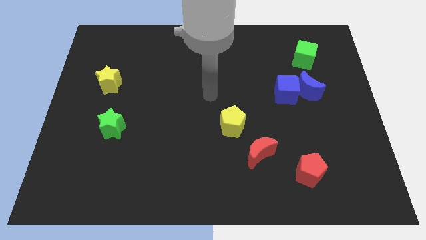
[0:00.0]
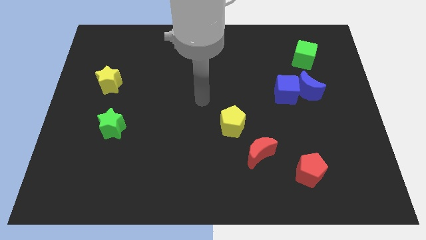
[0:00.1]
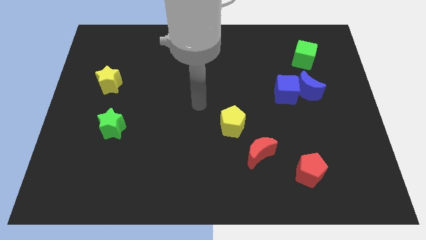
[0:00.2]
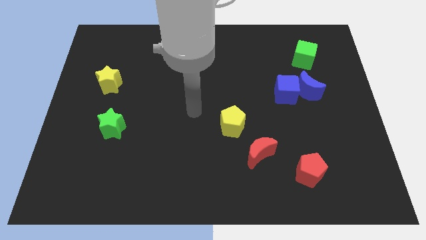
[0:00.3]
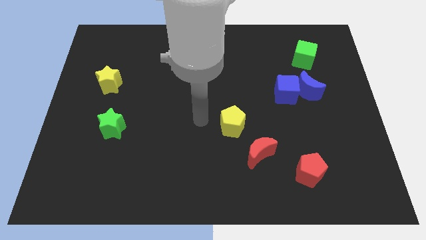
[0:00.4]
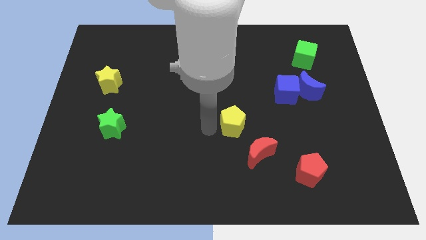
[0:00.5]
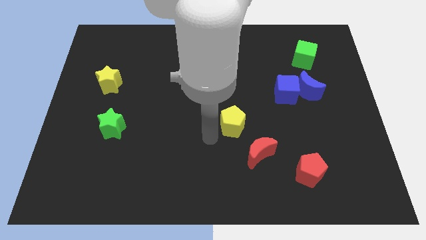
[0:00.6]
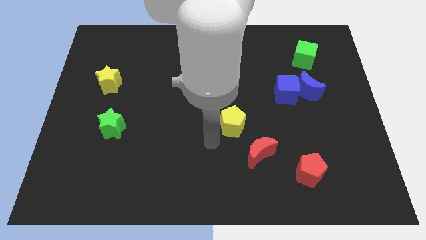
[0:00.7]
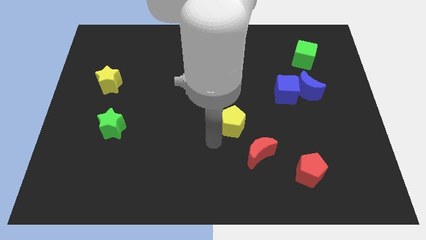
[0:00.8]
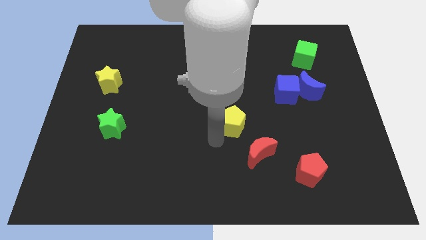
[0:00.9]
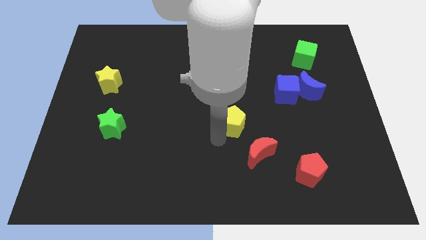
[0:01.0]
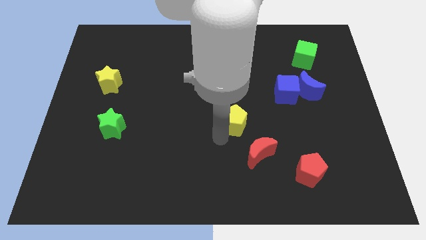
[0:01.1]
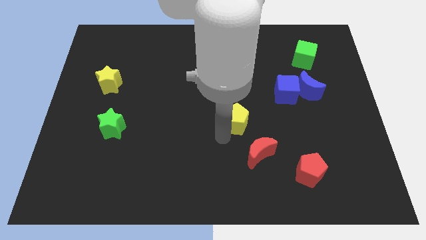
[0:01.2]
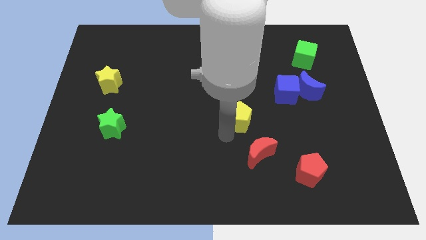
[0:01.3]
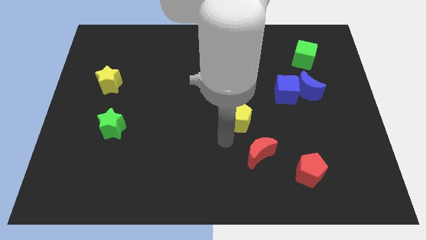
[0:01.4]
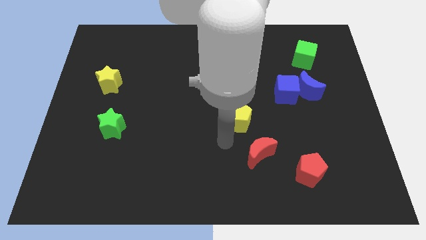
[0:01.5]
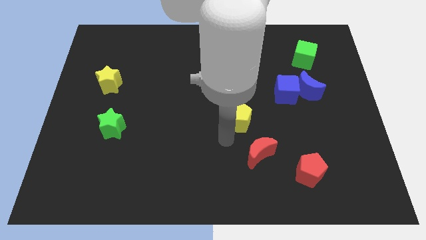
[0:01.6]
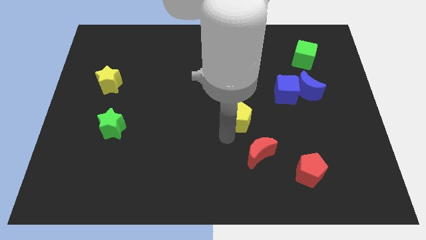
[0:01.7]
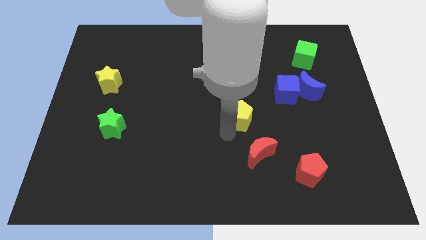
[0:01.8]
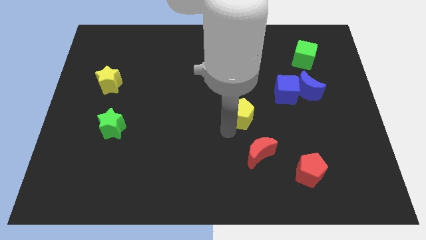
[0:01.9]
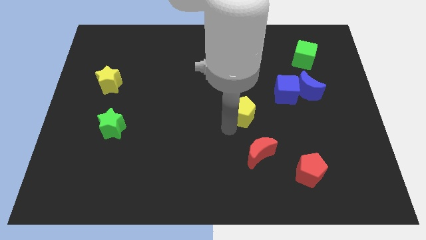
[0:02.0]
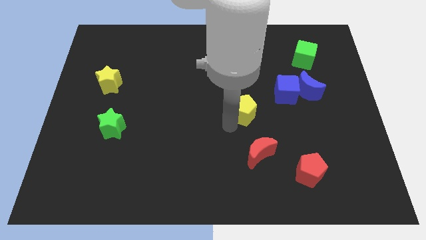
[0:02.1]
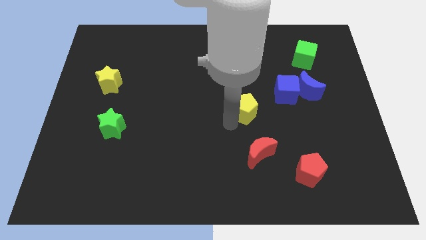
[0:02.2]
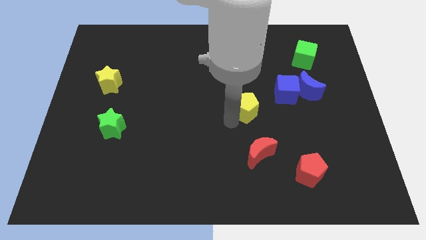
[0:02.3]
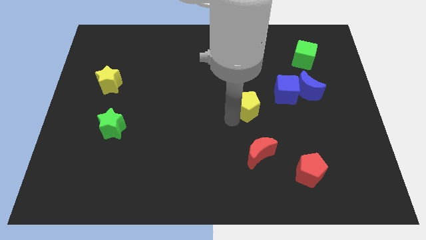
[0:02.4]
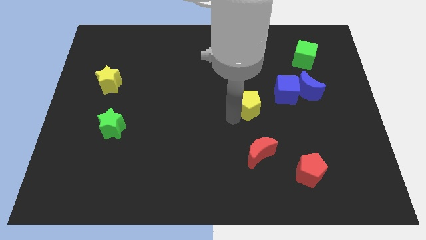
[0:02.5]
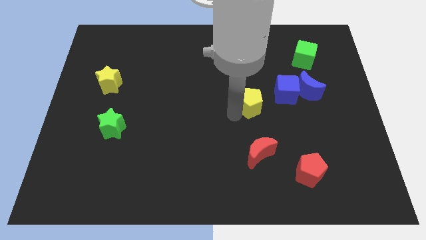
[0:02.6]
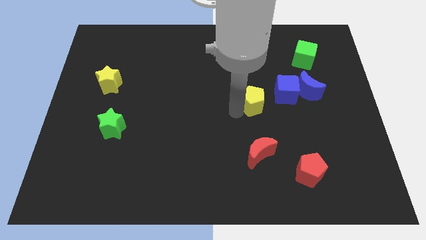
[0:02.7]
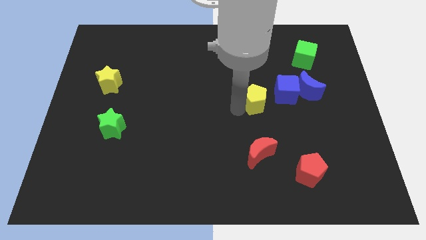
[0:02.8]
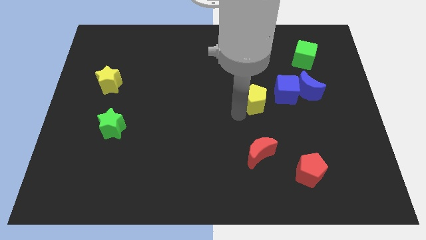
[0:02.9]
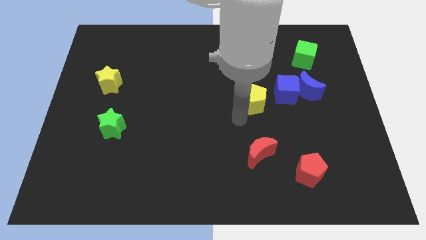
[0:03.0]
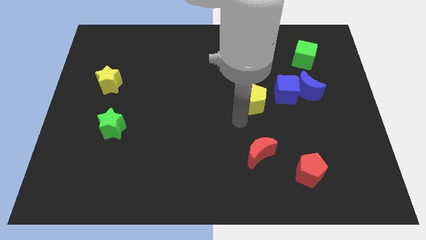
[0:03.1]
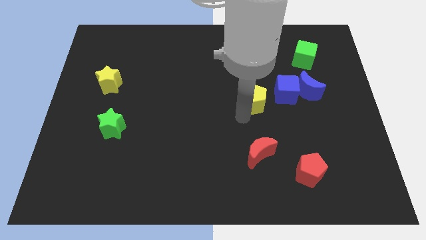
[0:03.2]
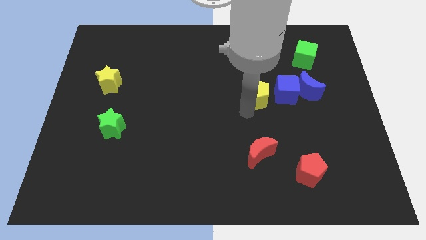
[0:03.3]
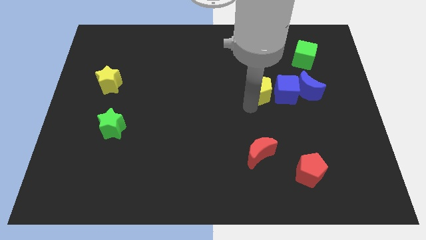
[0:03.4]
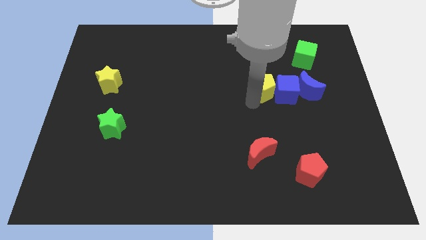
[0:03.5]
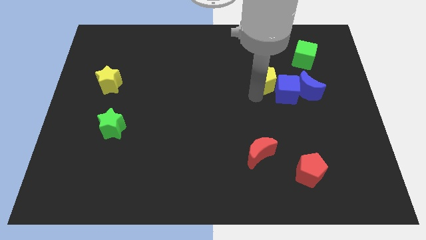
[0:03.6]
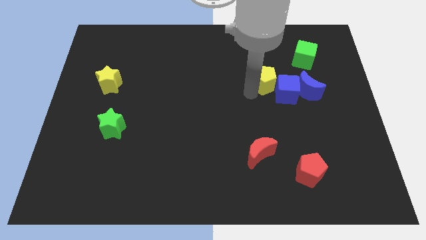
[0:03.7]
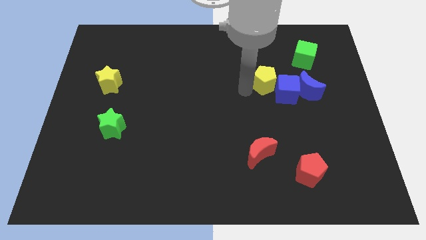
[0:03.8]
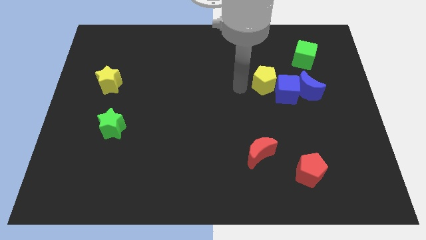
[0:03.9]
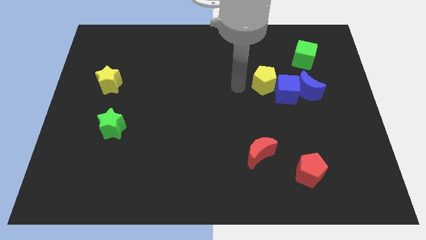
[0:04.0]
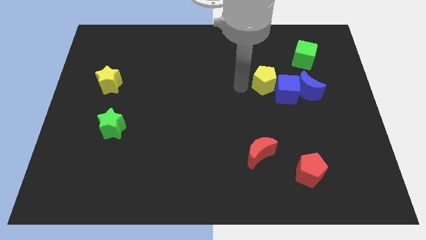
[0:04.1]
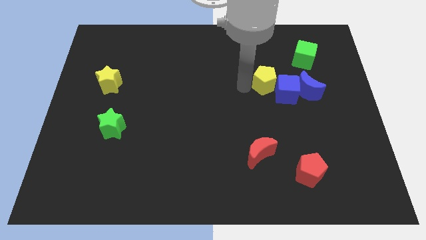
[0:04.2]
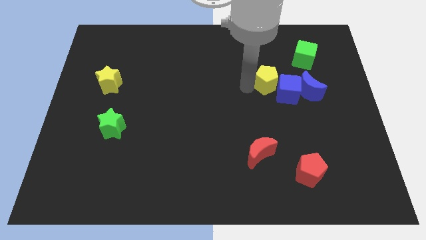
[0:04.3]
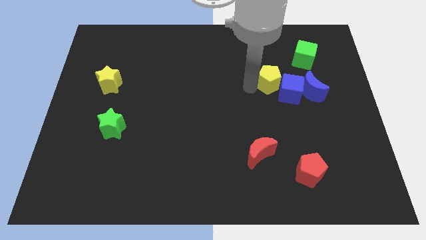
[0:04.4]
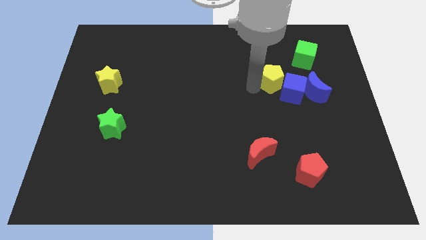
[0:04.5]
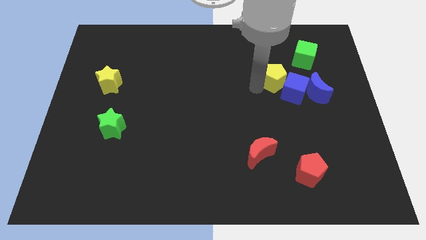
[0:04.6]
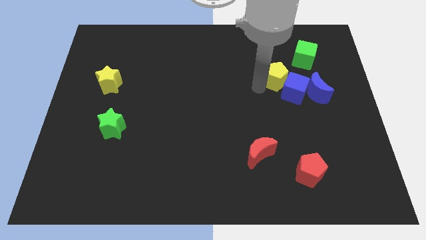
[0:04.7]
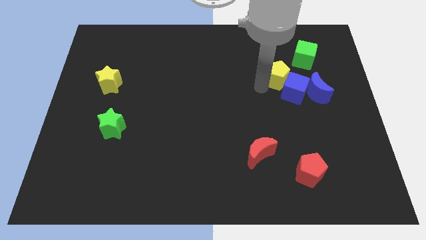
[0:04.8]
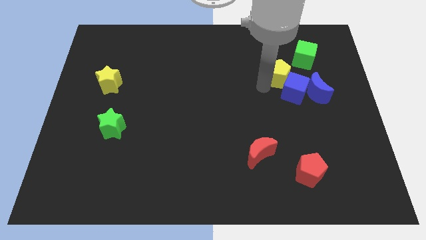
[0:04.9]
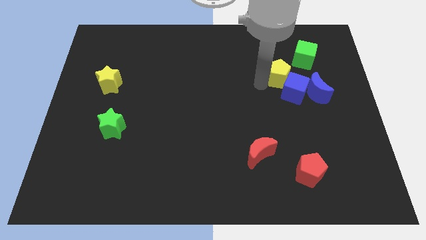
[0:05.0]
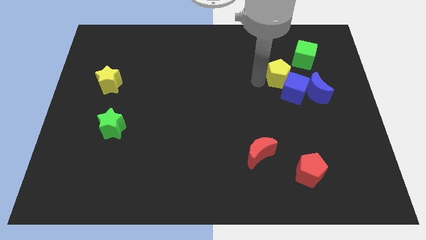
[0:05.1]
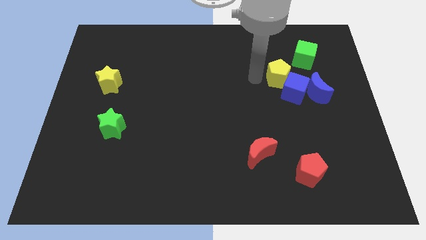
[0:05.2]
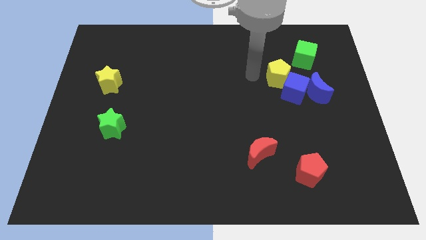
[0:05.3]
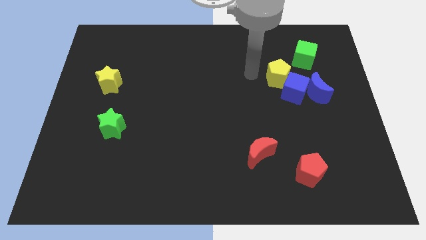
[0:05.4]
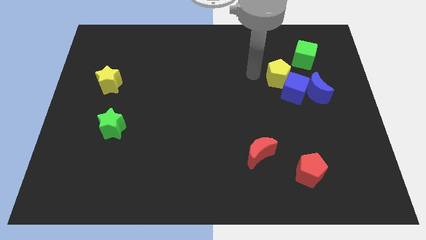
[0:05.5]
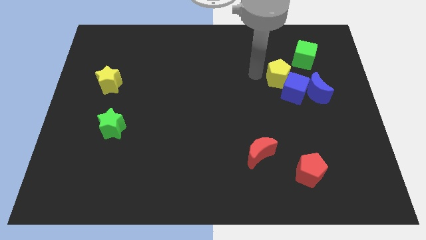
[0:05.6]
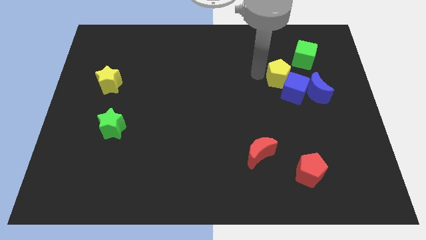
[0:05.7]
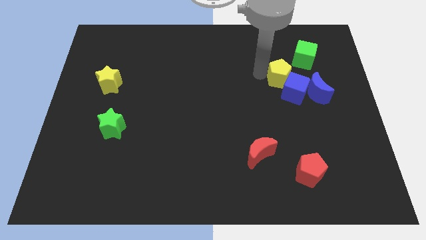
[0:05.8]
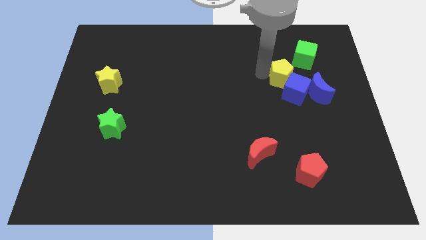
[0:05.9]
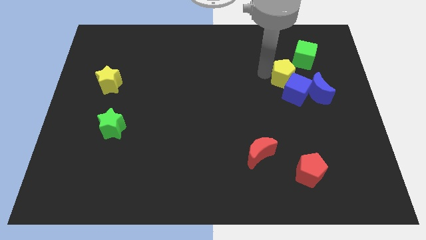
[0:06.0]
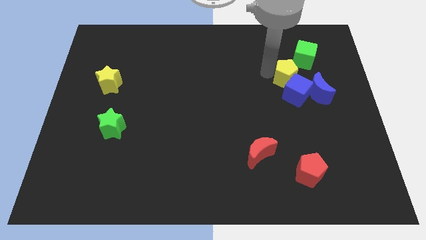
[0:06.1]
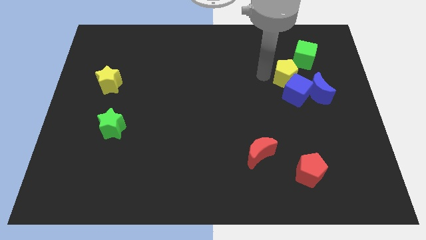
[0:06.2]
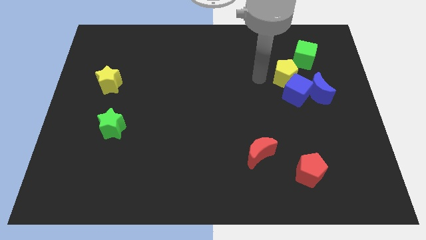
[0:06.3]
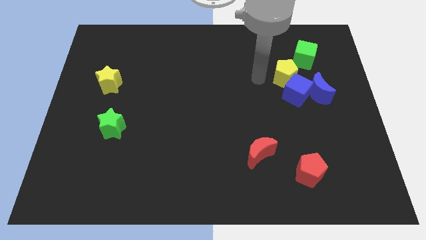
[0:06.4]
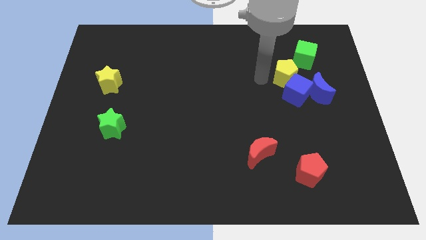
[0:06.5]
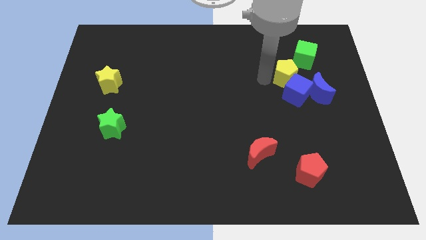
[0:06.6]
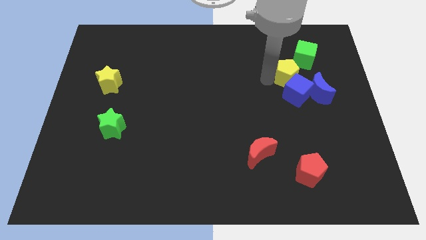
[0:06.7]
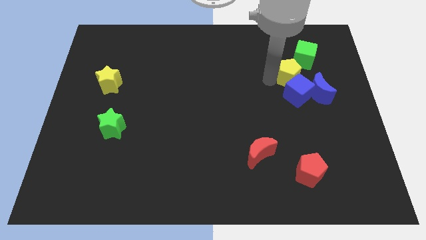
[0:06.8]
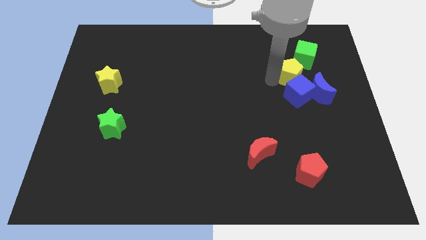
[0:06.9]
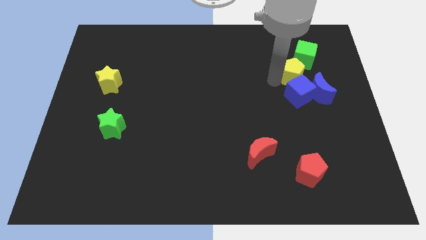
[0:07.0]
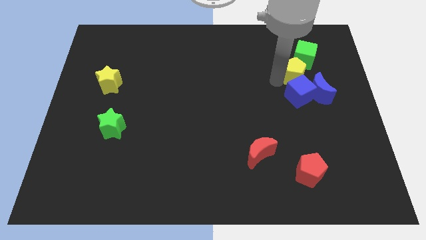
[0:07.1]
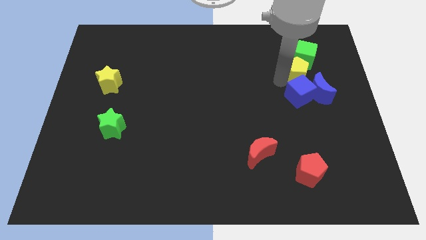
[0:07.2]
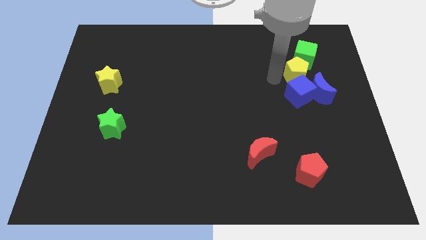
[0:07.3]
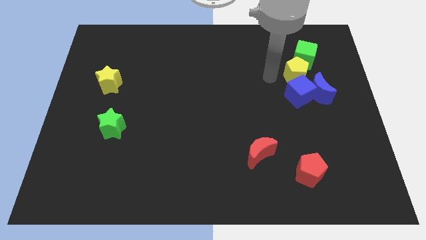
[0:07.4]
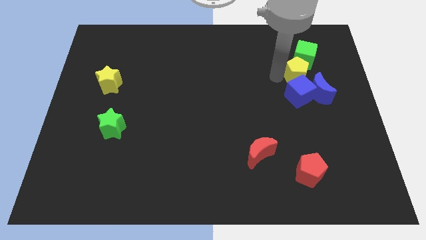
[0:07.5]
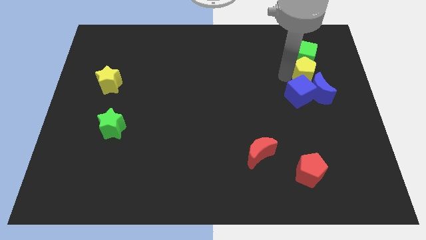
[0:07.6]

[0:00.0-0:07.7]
move the yellow pentagon to the bottom right of the green cube

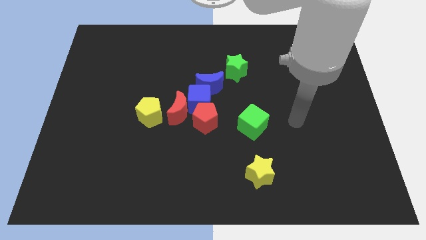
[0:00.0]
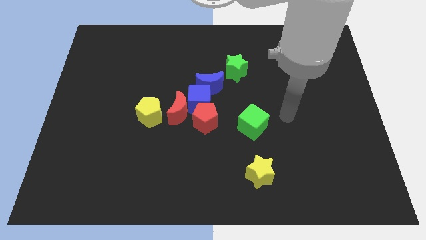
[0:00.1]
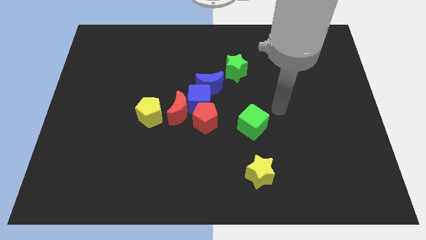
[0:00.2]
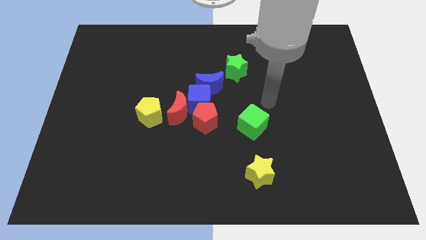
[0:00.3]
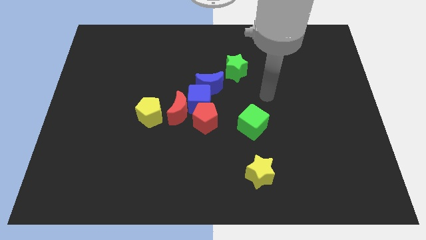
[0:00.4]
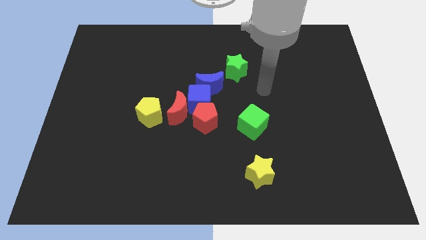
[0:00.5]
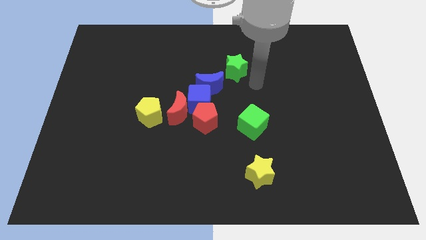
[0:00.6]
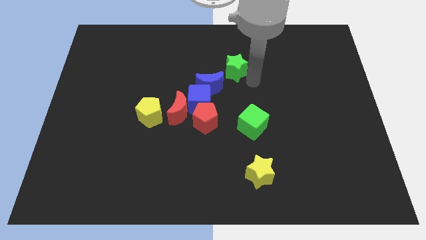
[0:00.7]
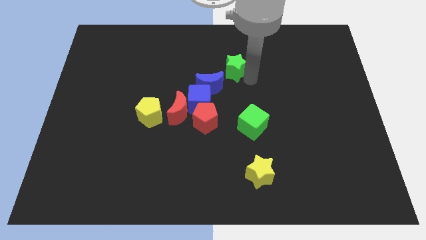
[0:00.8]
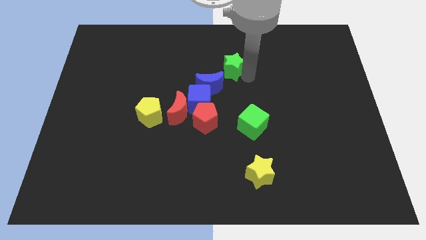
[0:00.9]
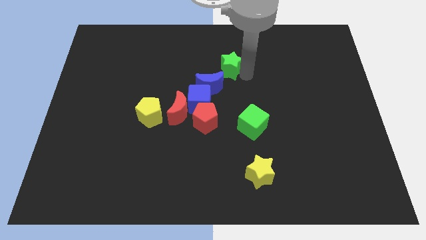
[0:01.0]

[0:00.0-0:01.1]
put the green star to the top of the blue moon
